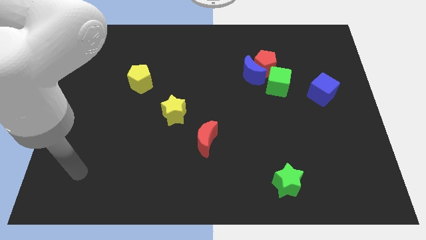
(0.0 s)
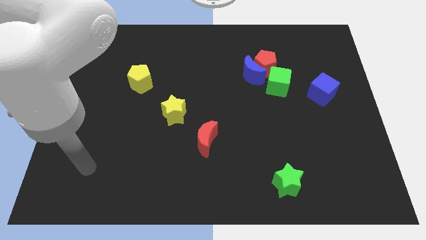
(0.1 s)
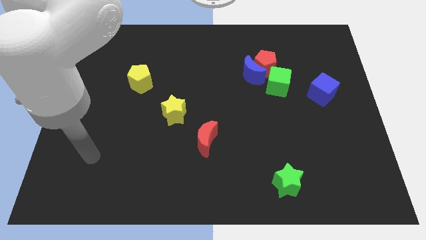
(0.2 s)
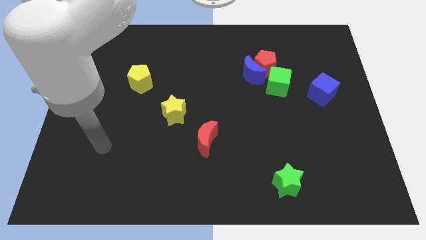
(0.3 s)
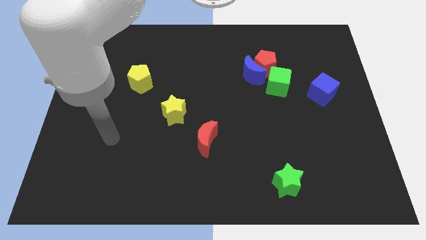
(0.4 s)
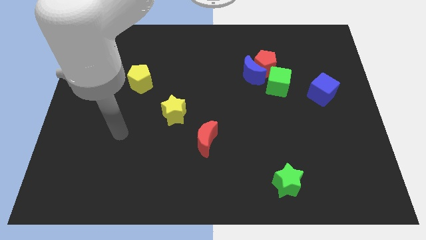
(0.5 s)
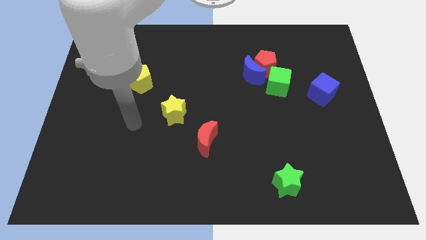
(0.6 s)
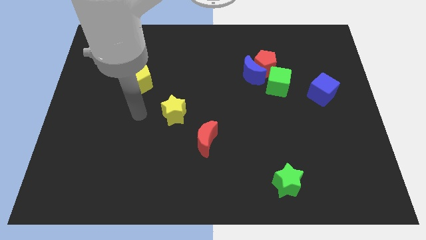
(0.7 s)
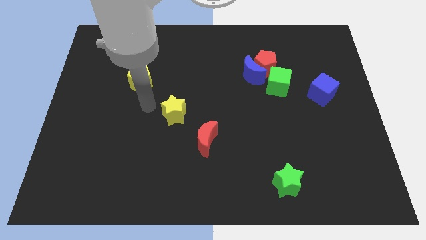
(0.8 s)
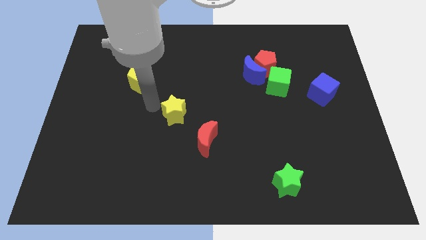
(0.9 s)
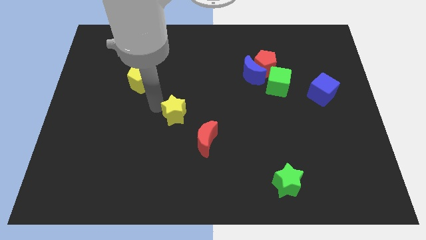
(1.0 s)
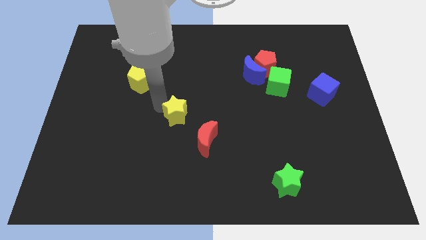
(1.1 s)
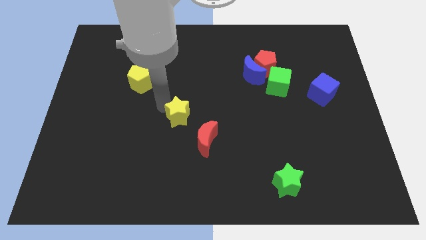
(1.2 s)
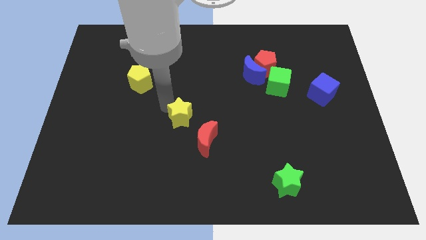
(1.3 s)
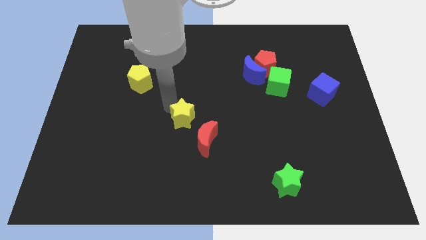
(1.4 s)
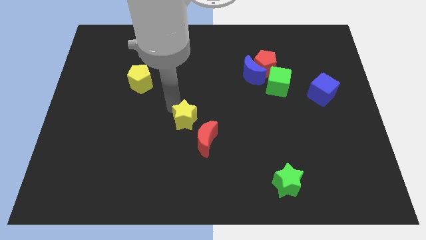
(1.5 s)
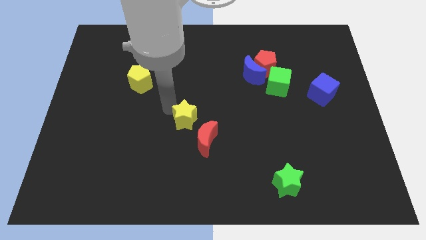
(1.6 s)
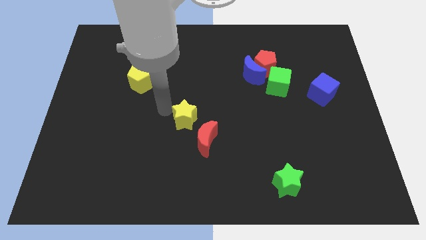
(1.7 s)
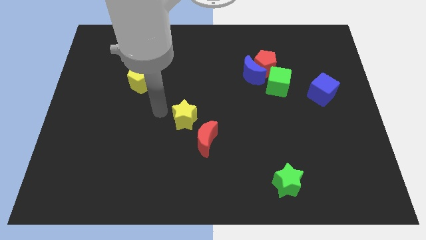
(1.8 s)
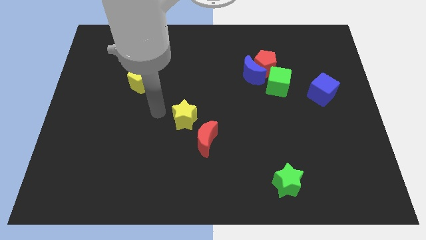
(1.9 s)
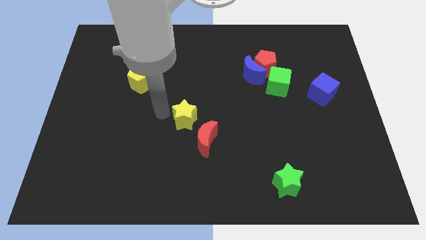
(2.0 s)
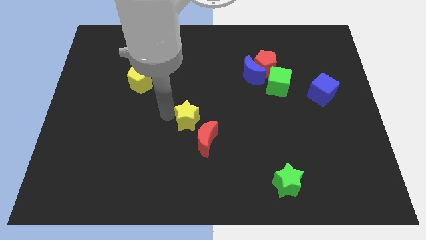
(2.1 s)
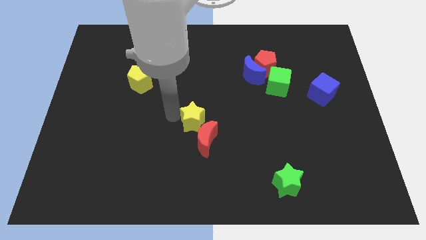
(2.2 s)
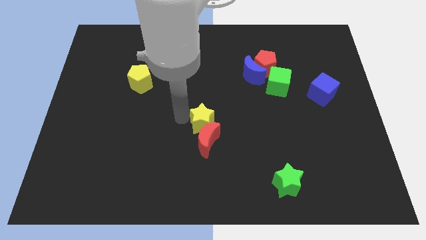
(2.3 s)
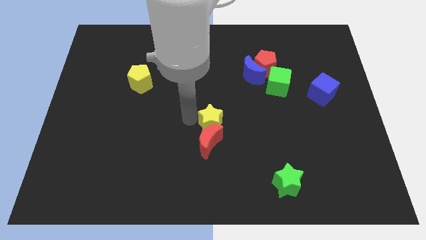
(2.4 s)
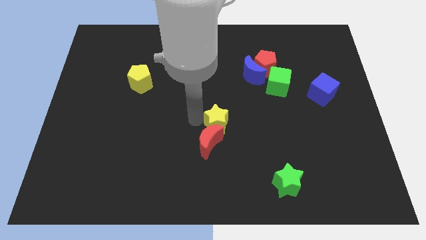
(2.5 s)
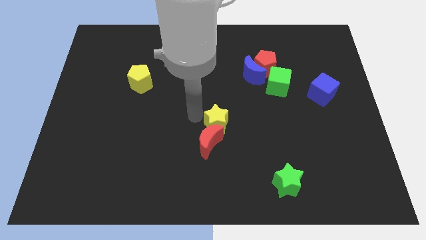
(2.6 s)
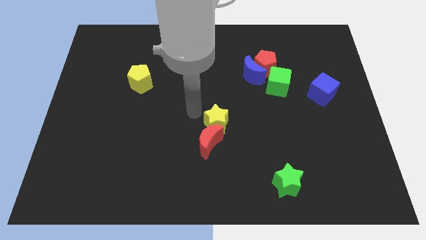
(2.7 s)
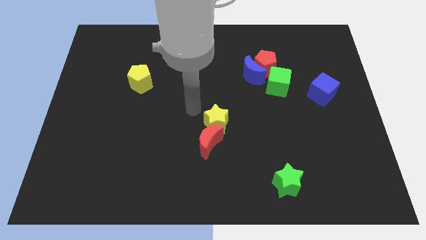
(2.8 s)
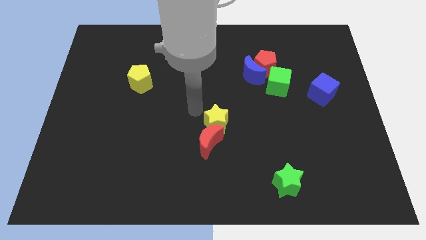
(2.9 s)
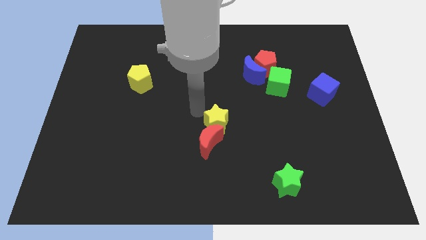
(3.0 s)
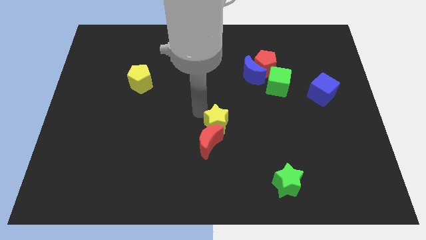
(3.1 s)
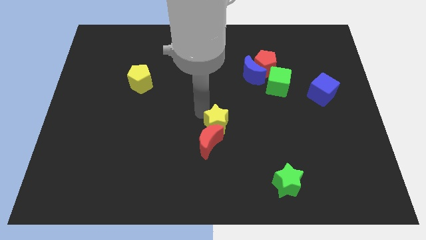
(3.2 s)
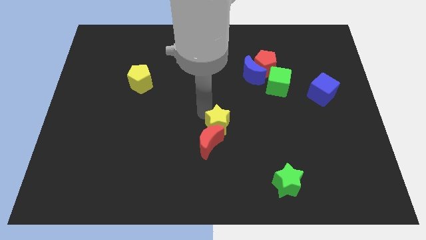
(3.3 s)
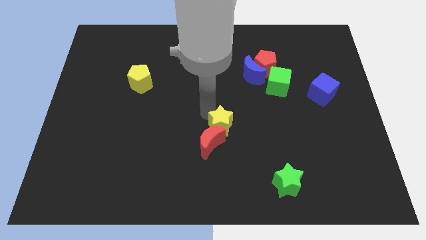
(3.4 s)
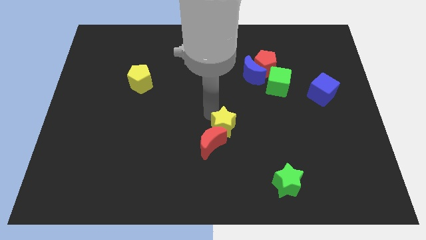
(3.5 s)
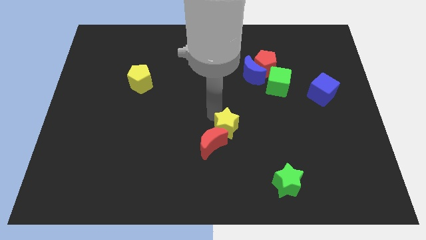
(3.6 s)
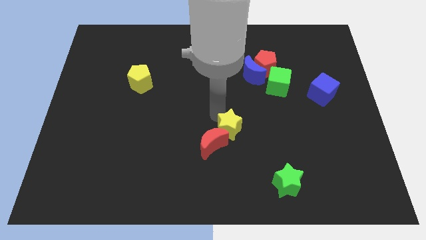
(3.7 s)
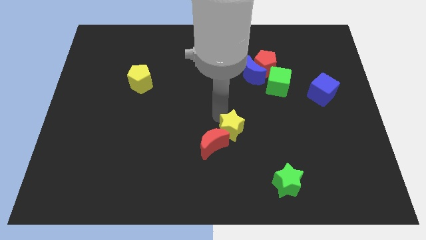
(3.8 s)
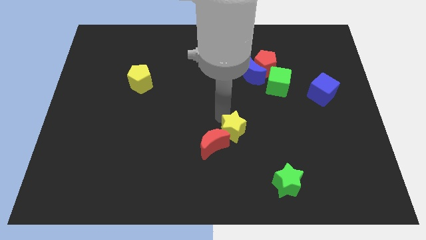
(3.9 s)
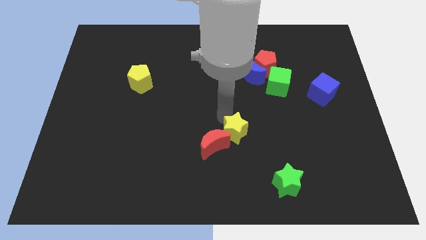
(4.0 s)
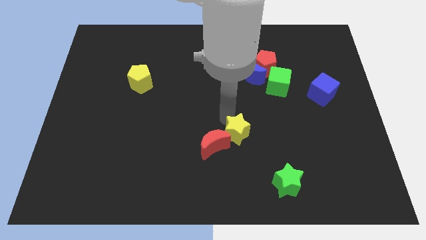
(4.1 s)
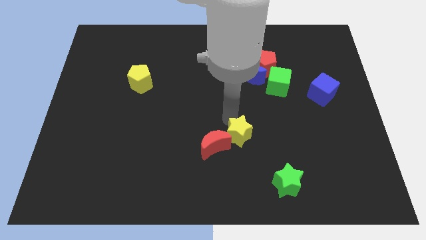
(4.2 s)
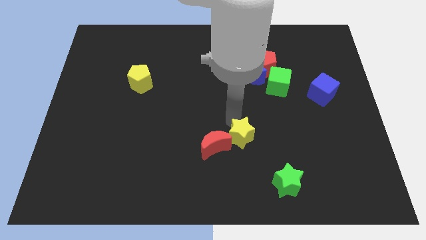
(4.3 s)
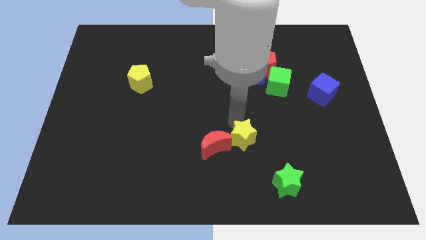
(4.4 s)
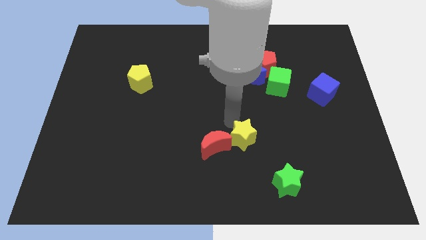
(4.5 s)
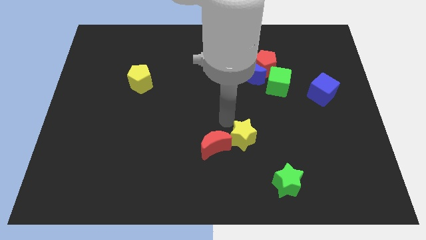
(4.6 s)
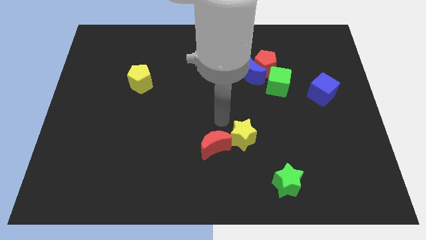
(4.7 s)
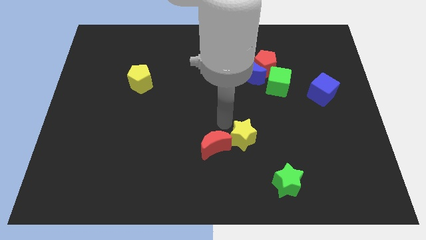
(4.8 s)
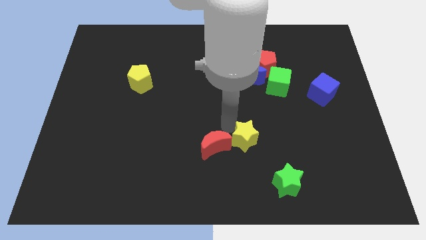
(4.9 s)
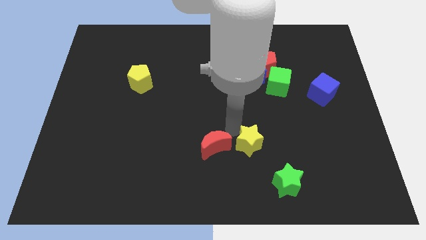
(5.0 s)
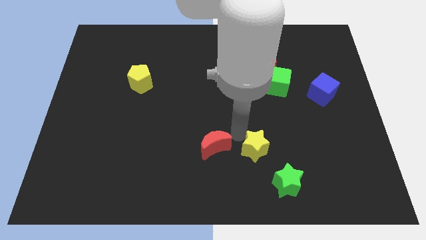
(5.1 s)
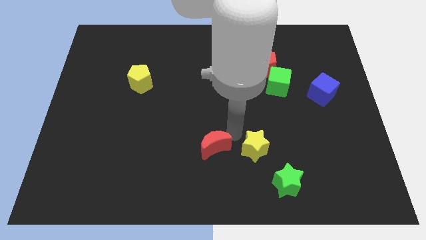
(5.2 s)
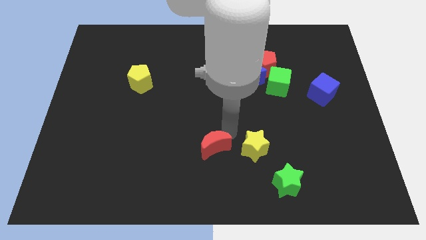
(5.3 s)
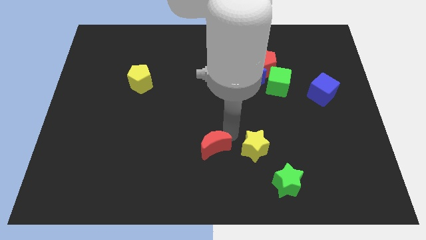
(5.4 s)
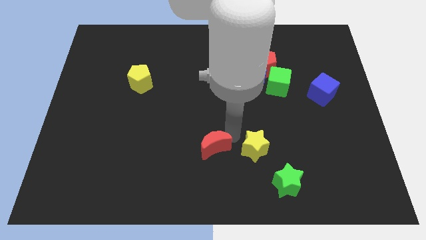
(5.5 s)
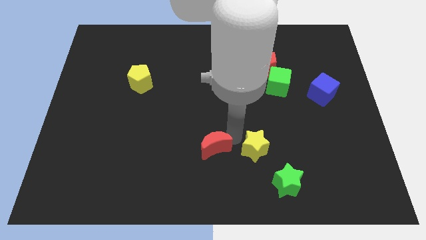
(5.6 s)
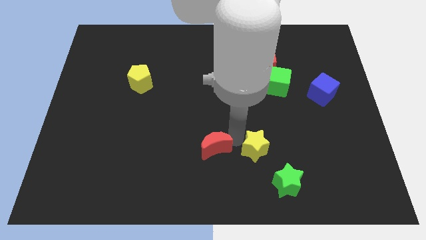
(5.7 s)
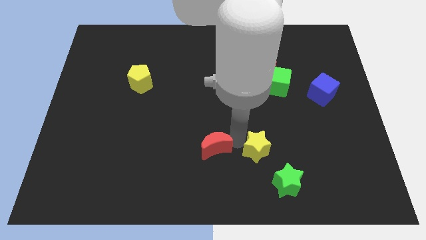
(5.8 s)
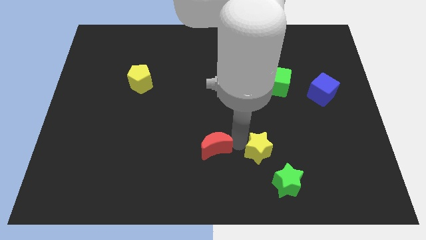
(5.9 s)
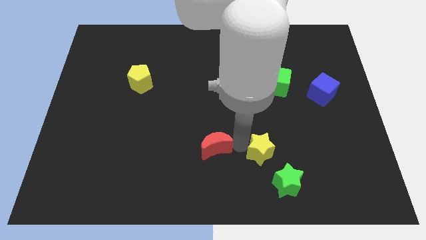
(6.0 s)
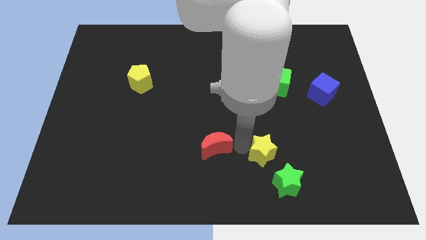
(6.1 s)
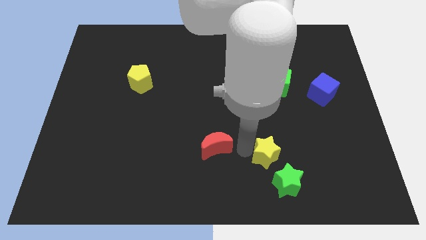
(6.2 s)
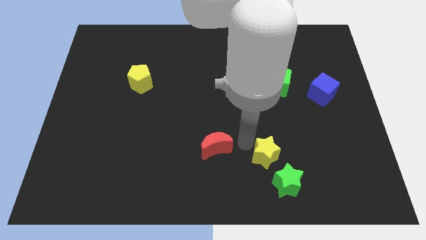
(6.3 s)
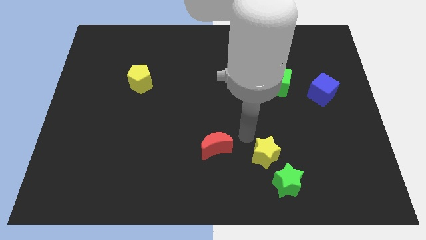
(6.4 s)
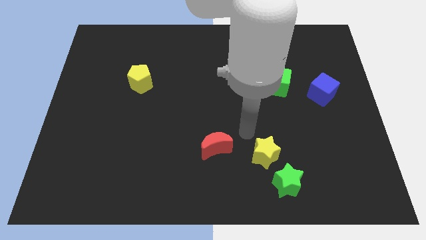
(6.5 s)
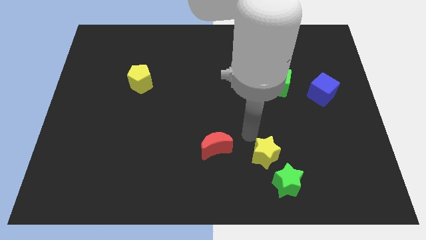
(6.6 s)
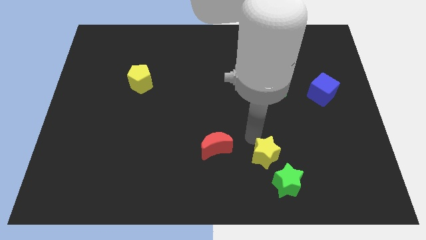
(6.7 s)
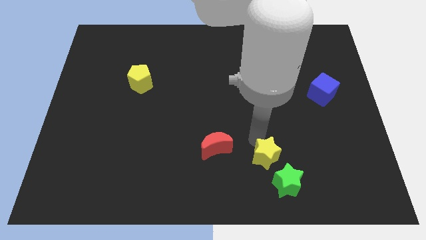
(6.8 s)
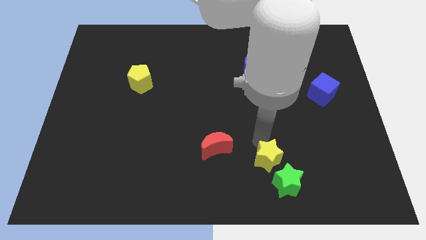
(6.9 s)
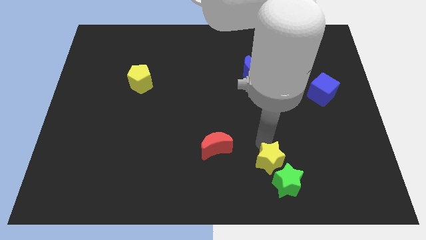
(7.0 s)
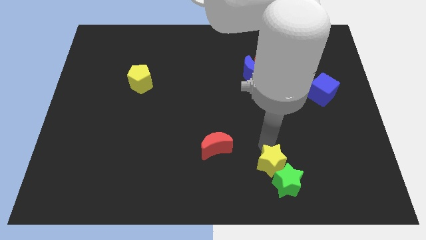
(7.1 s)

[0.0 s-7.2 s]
push the yellow star towards the green star
